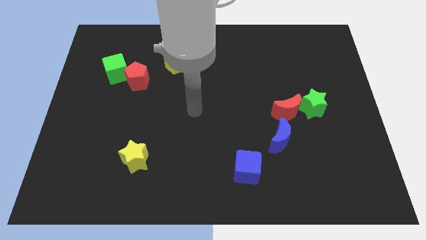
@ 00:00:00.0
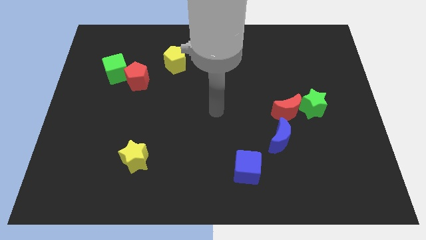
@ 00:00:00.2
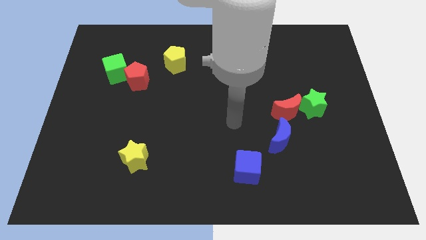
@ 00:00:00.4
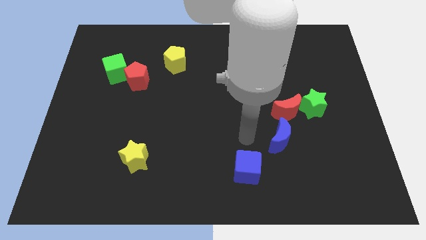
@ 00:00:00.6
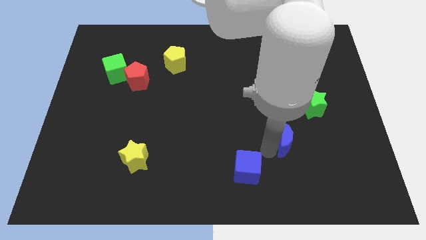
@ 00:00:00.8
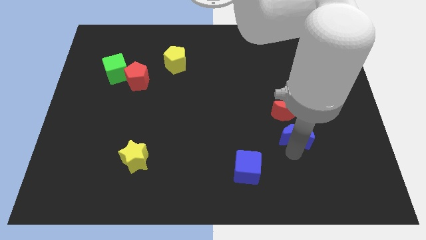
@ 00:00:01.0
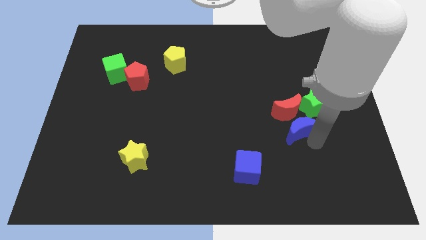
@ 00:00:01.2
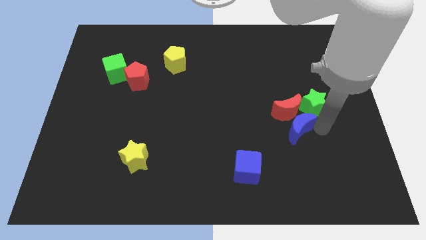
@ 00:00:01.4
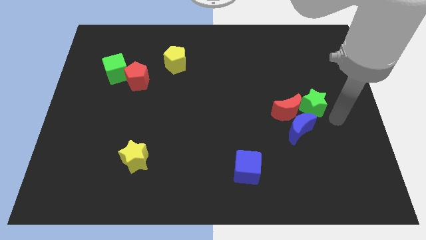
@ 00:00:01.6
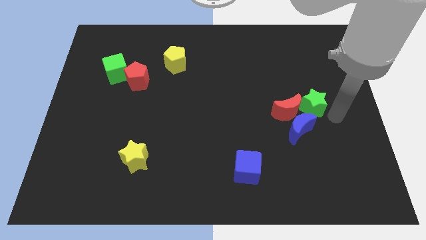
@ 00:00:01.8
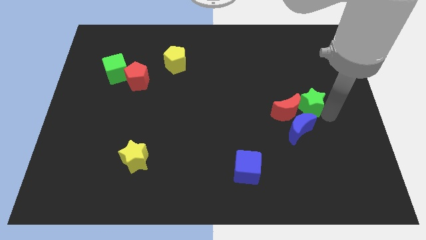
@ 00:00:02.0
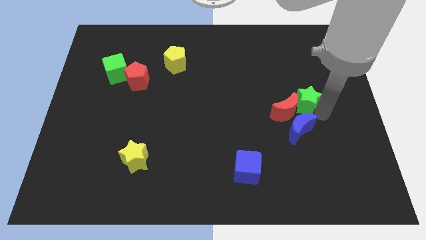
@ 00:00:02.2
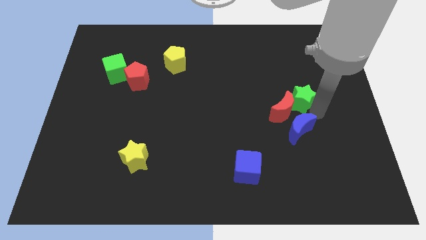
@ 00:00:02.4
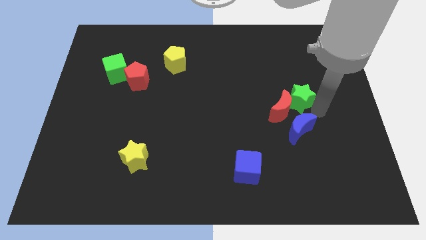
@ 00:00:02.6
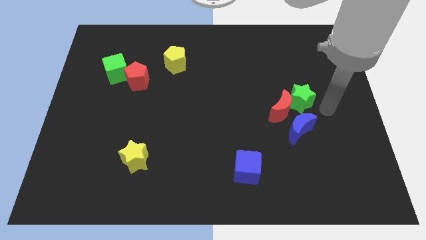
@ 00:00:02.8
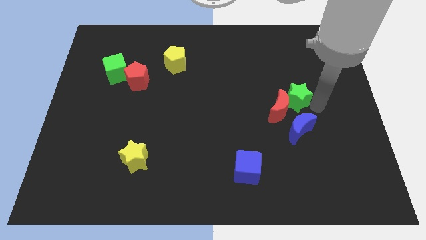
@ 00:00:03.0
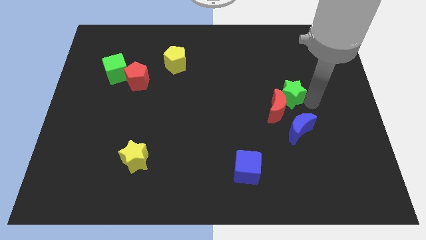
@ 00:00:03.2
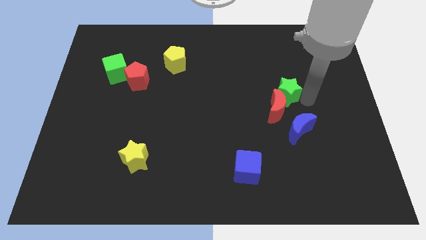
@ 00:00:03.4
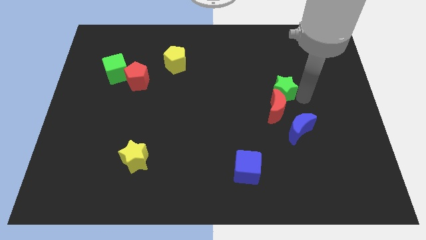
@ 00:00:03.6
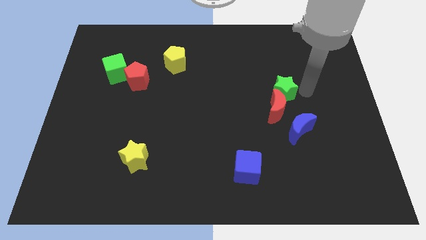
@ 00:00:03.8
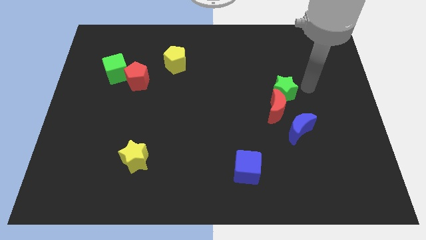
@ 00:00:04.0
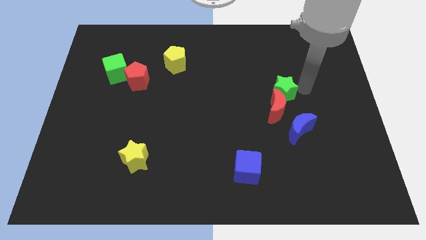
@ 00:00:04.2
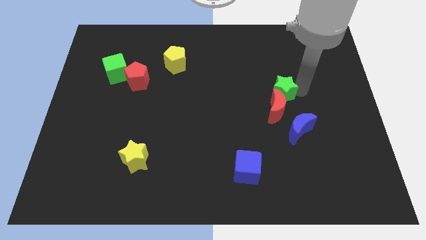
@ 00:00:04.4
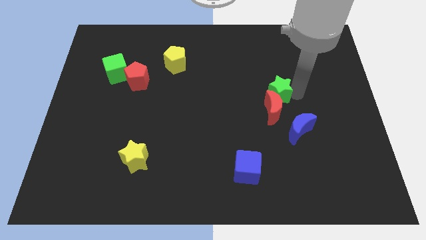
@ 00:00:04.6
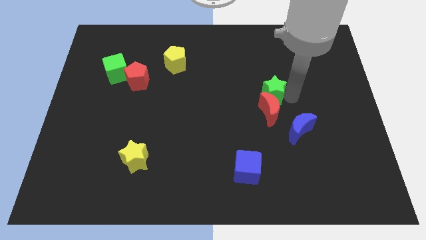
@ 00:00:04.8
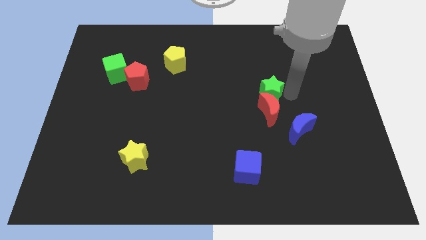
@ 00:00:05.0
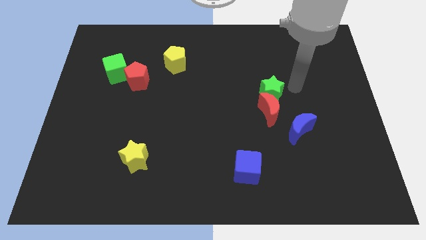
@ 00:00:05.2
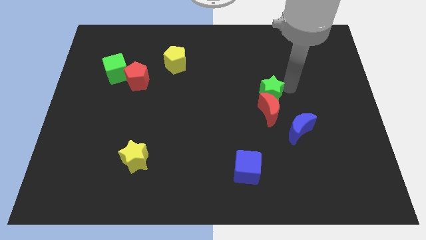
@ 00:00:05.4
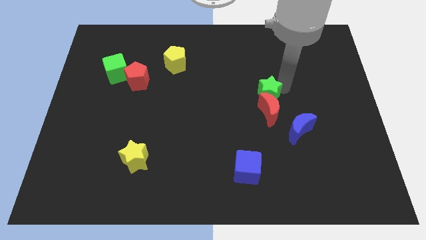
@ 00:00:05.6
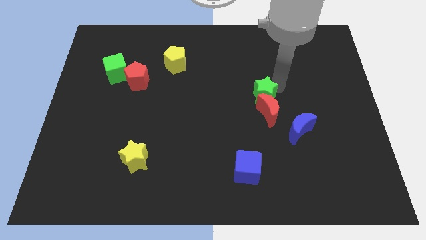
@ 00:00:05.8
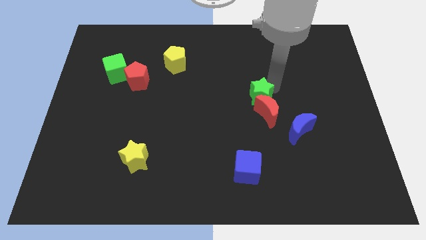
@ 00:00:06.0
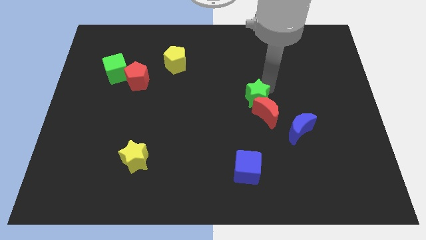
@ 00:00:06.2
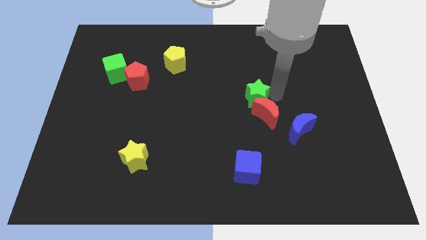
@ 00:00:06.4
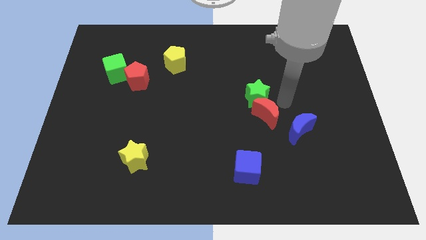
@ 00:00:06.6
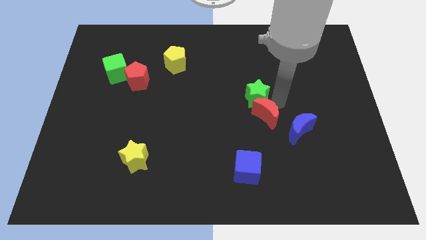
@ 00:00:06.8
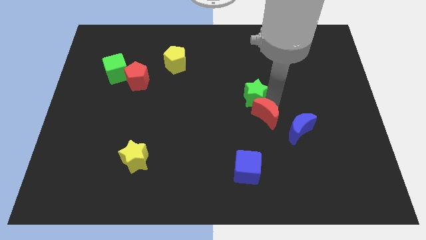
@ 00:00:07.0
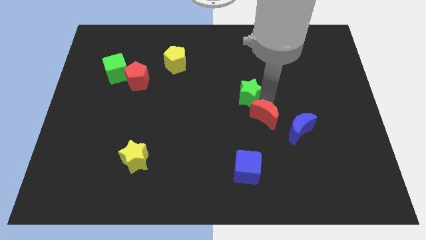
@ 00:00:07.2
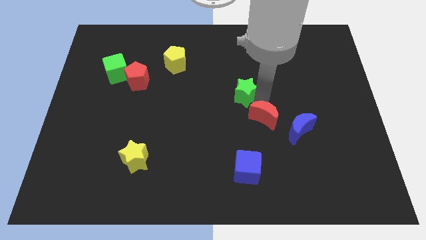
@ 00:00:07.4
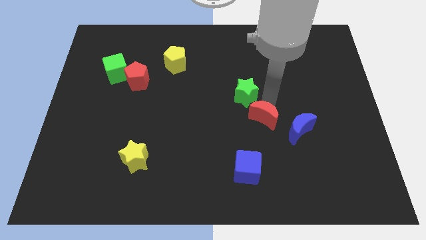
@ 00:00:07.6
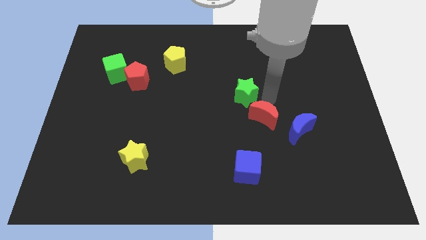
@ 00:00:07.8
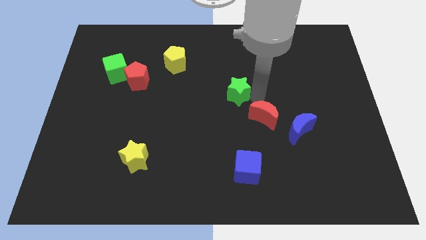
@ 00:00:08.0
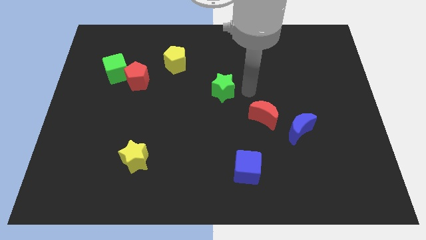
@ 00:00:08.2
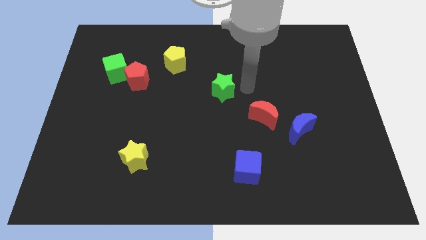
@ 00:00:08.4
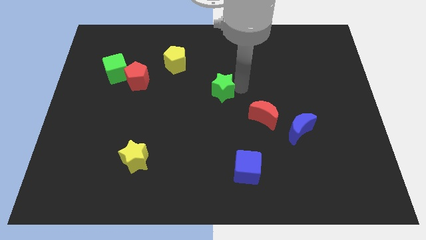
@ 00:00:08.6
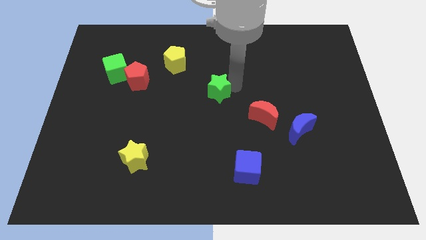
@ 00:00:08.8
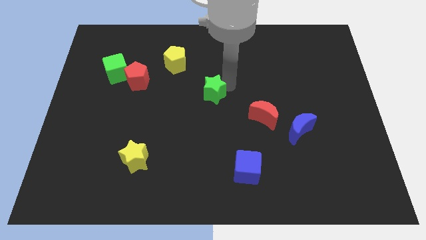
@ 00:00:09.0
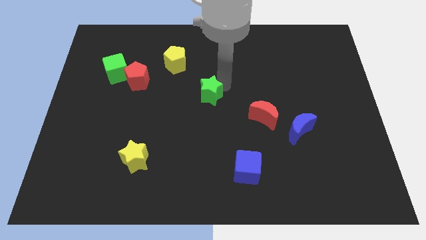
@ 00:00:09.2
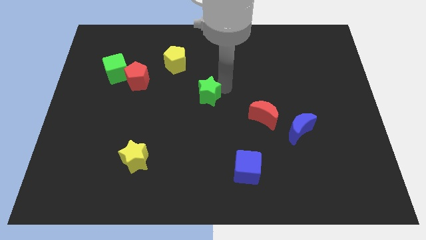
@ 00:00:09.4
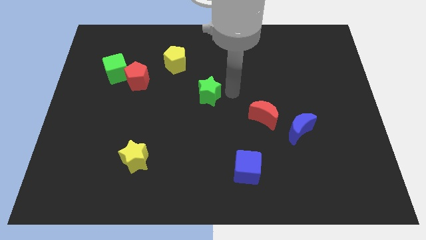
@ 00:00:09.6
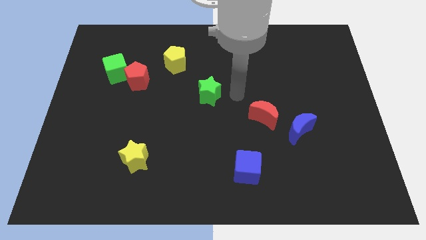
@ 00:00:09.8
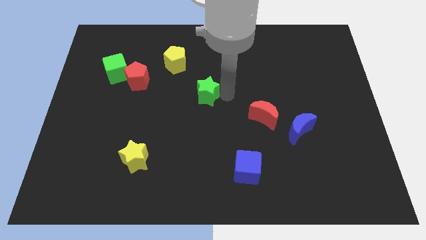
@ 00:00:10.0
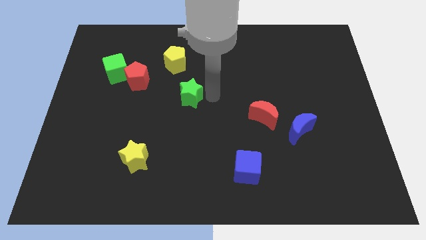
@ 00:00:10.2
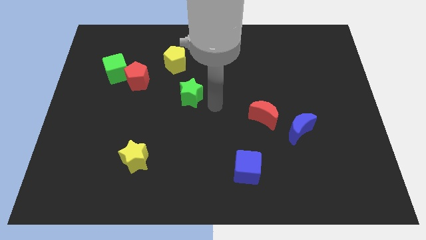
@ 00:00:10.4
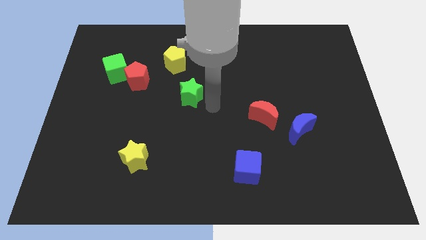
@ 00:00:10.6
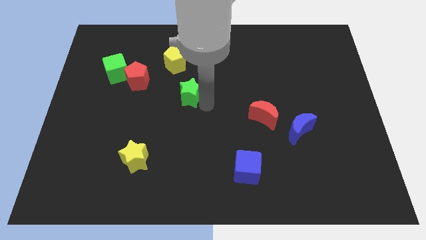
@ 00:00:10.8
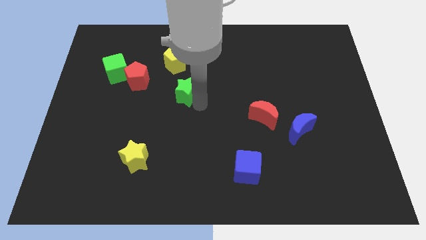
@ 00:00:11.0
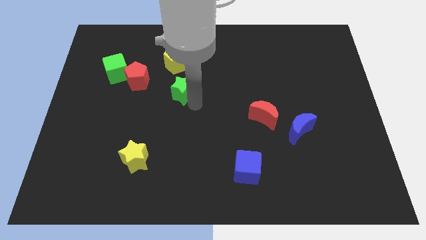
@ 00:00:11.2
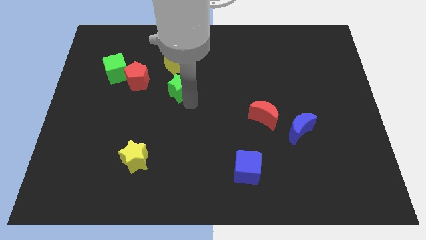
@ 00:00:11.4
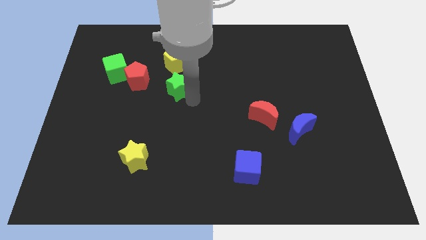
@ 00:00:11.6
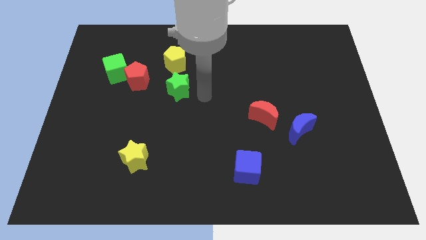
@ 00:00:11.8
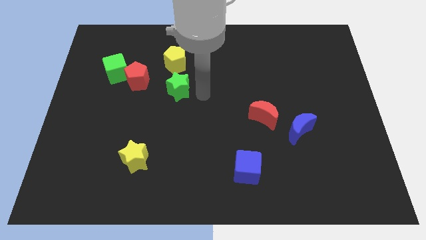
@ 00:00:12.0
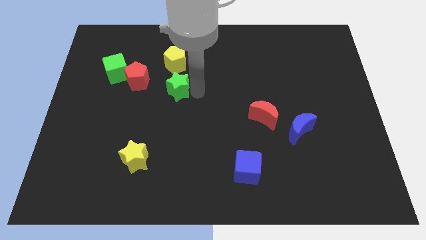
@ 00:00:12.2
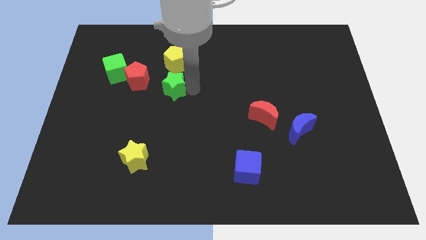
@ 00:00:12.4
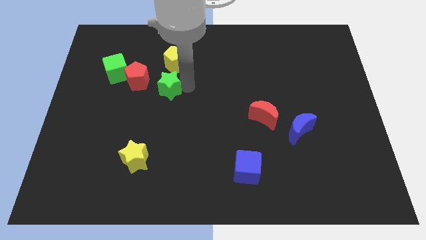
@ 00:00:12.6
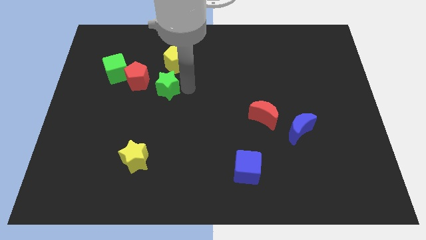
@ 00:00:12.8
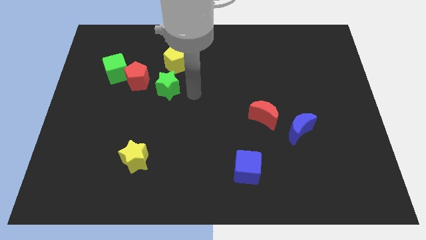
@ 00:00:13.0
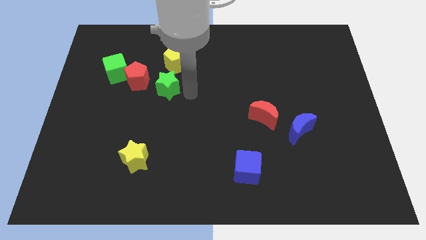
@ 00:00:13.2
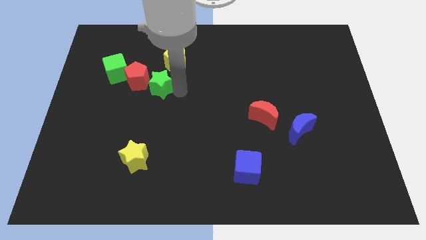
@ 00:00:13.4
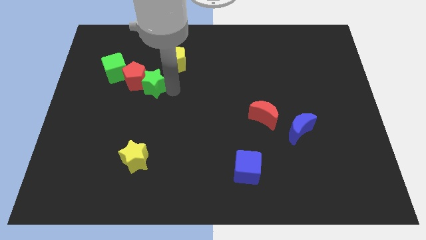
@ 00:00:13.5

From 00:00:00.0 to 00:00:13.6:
slide the green star close to the red pentagon
